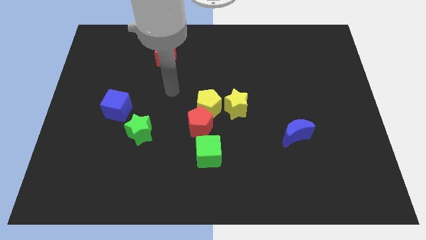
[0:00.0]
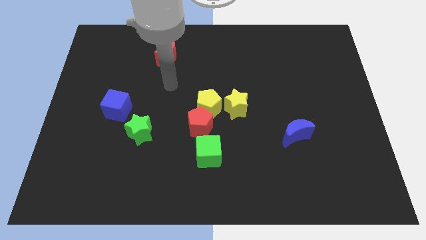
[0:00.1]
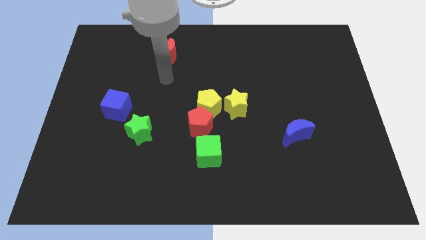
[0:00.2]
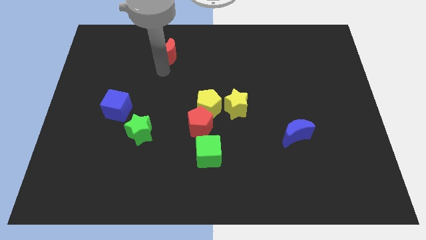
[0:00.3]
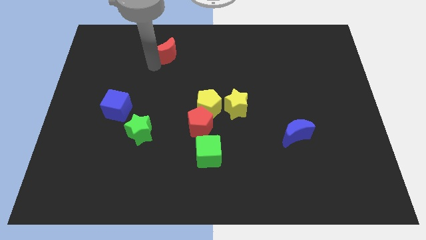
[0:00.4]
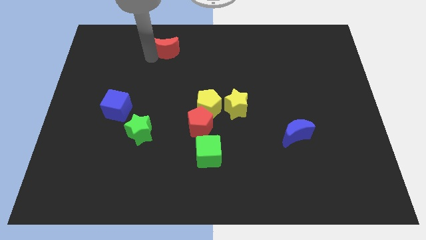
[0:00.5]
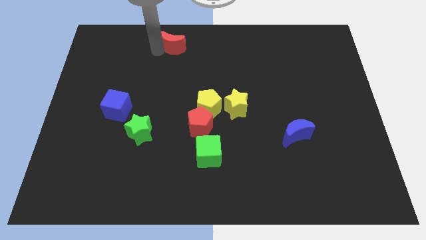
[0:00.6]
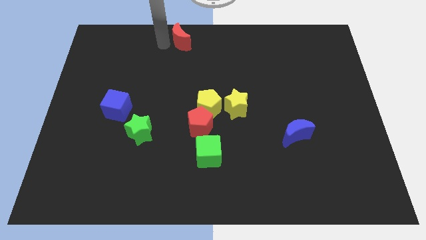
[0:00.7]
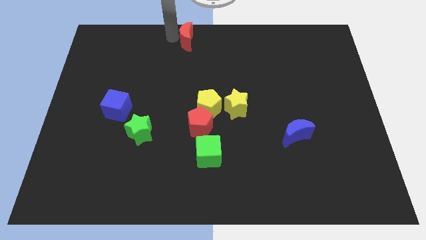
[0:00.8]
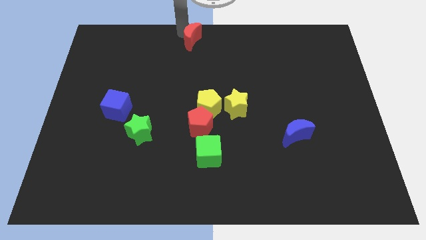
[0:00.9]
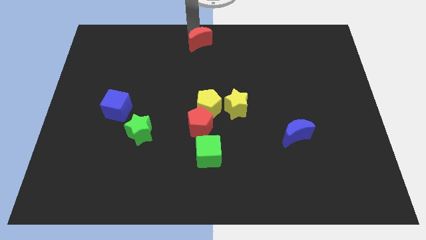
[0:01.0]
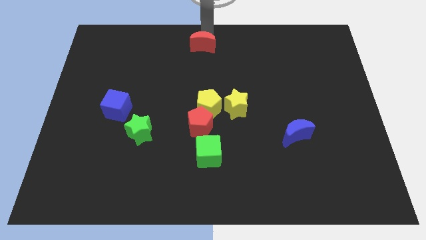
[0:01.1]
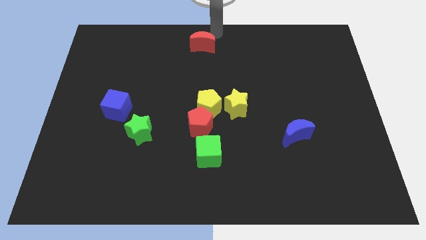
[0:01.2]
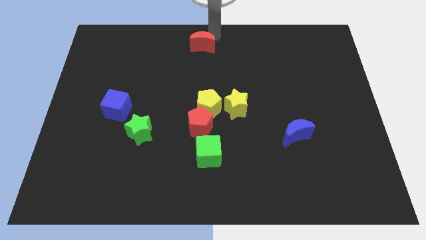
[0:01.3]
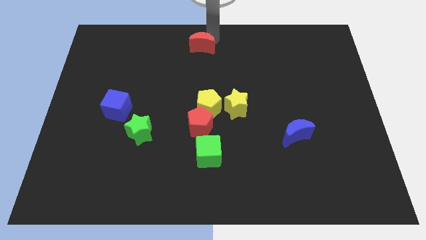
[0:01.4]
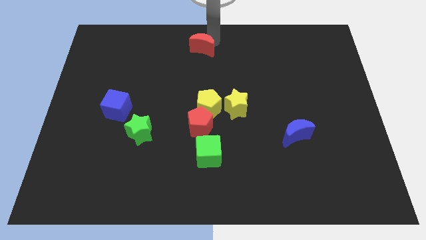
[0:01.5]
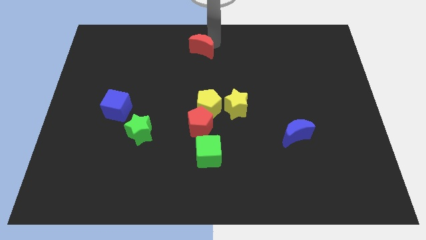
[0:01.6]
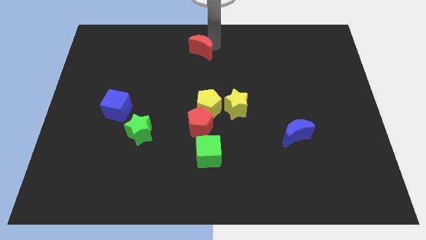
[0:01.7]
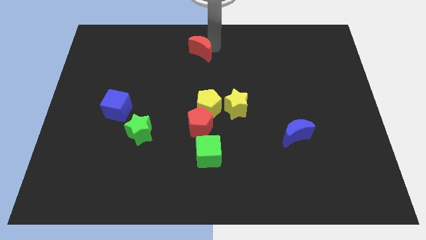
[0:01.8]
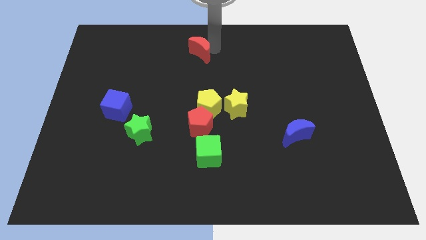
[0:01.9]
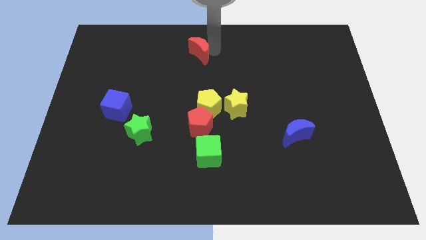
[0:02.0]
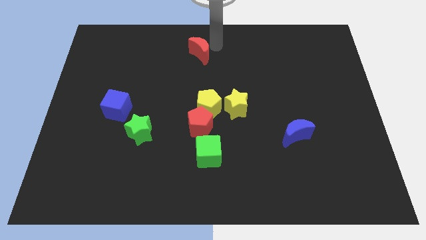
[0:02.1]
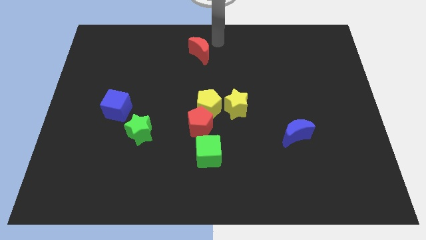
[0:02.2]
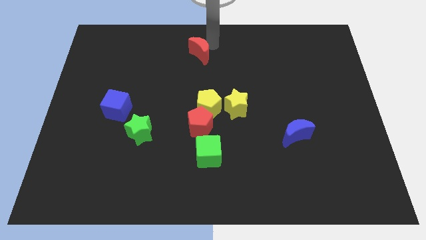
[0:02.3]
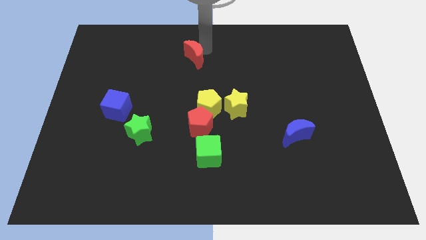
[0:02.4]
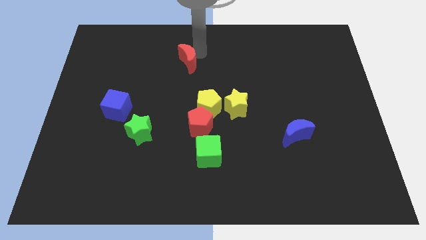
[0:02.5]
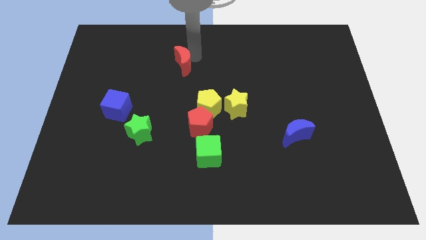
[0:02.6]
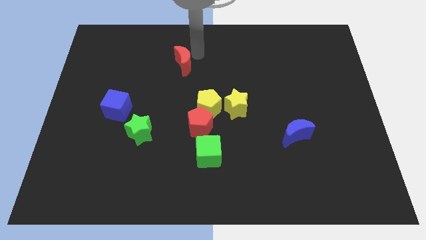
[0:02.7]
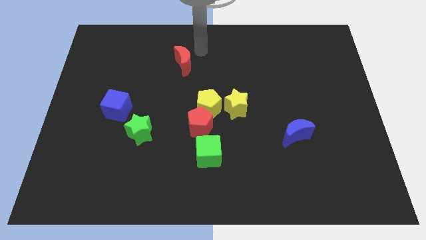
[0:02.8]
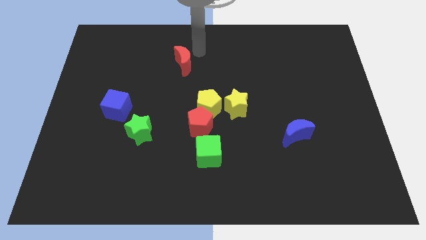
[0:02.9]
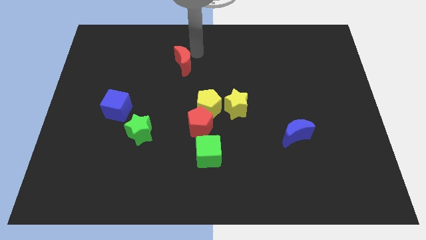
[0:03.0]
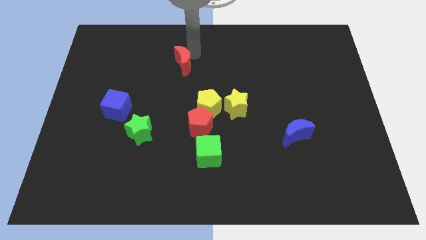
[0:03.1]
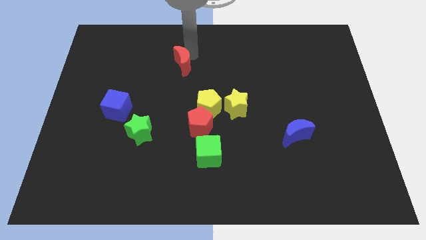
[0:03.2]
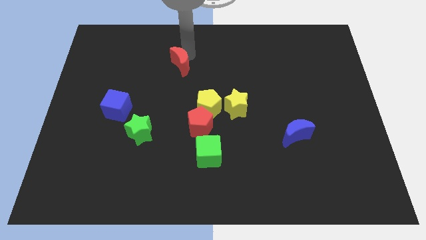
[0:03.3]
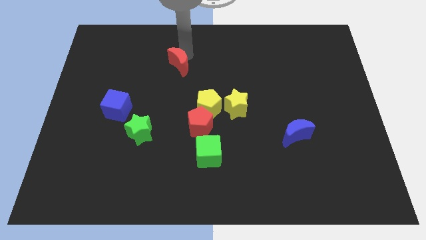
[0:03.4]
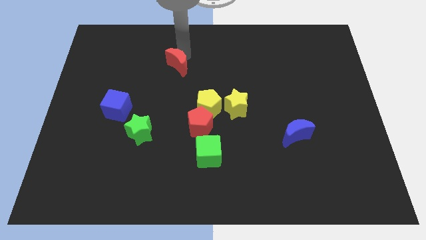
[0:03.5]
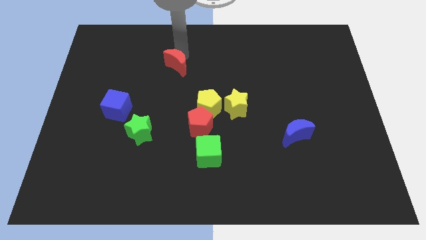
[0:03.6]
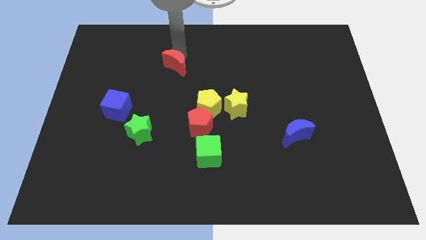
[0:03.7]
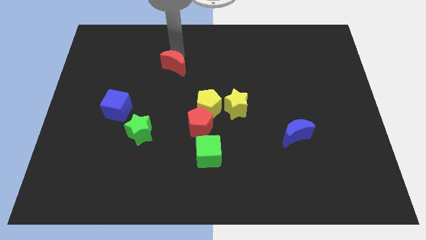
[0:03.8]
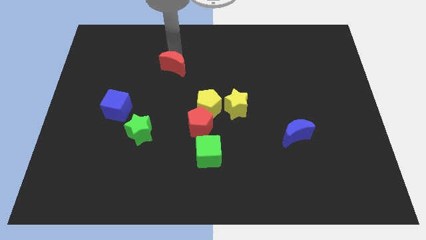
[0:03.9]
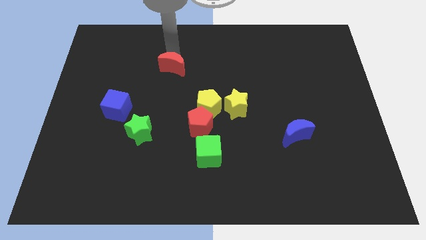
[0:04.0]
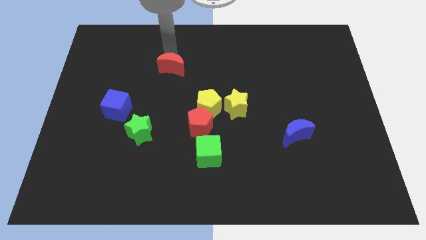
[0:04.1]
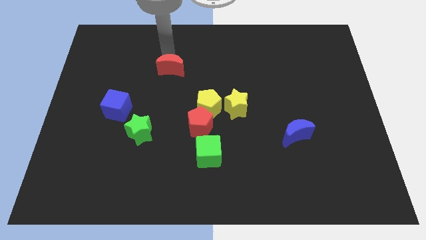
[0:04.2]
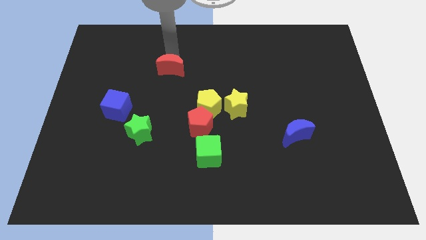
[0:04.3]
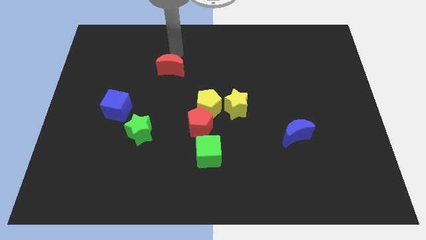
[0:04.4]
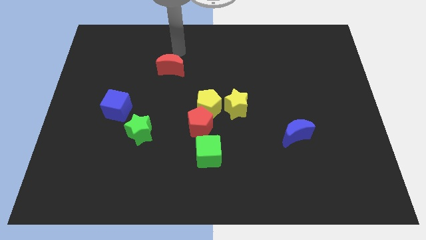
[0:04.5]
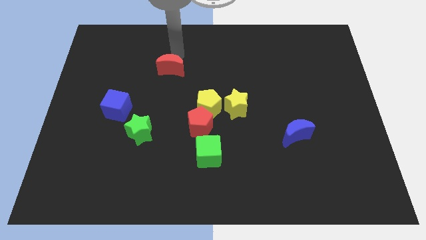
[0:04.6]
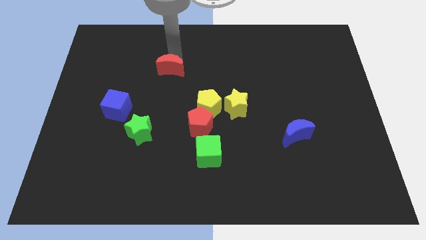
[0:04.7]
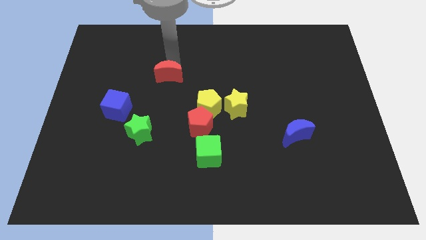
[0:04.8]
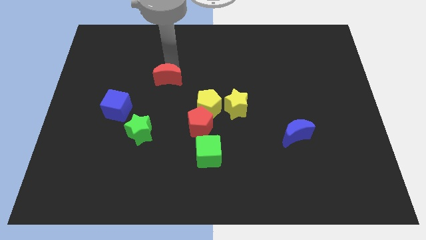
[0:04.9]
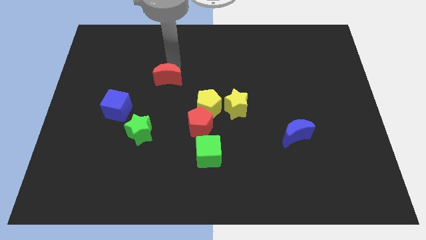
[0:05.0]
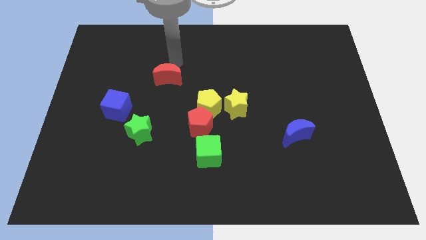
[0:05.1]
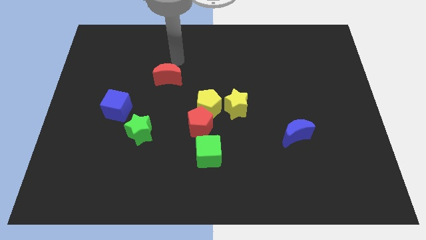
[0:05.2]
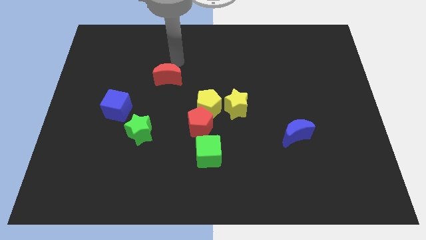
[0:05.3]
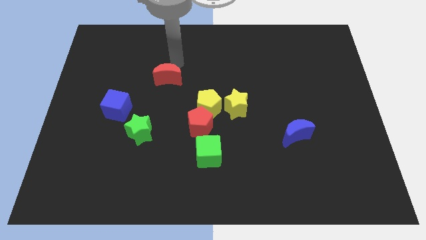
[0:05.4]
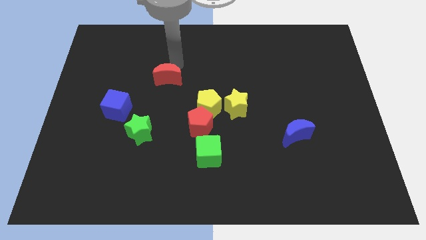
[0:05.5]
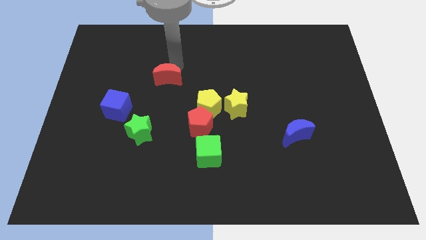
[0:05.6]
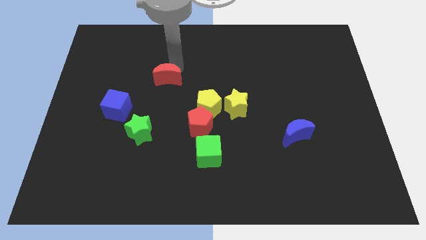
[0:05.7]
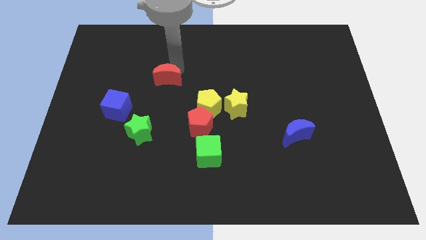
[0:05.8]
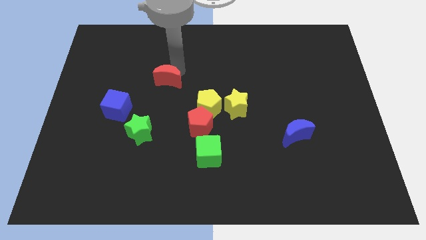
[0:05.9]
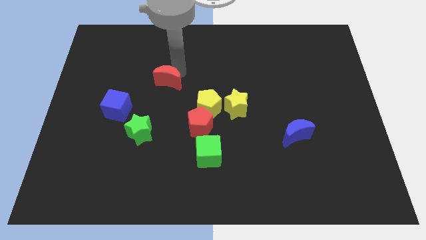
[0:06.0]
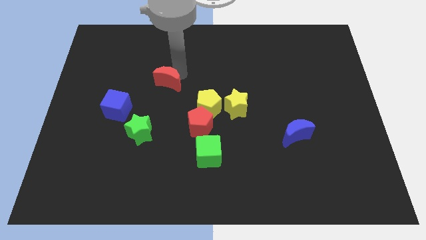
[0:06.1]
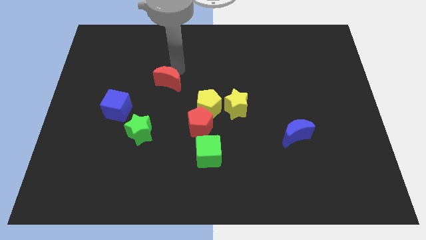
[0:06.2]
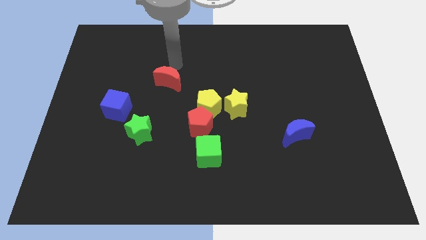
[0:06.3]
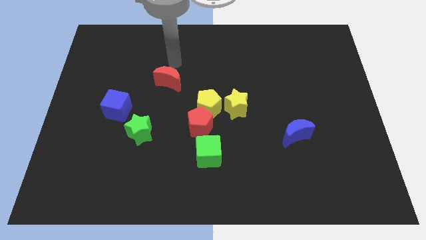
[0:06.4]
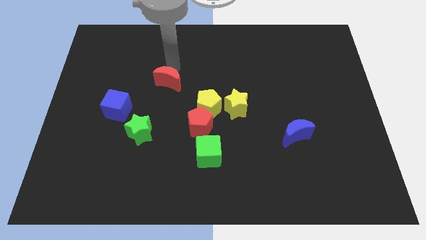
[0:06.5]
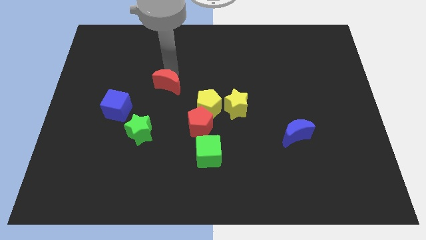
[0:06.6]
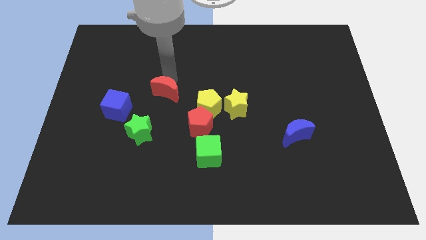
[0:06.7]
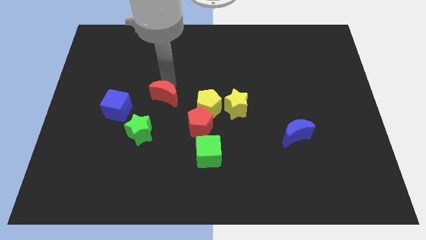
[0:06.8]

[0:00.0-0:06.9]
put the red moon to the right of the blue cube

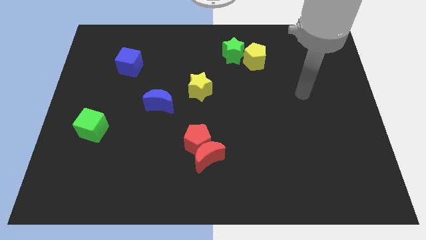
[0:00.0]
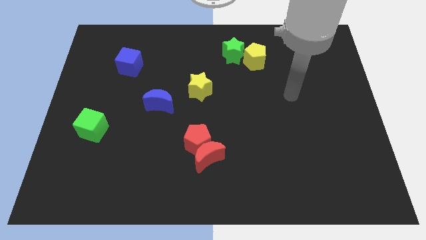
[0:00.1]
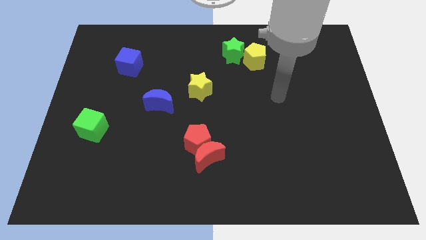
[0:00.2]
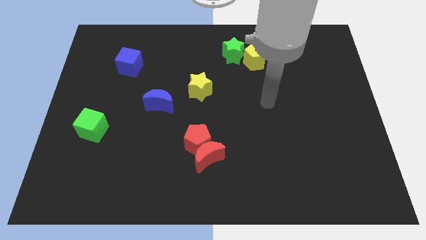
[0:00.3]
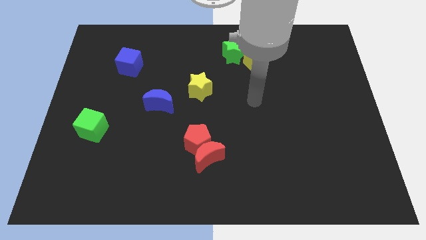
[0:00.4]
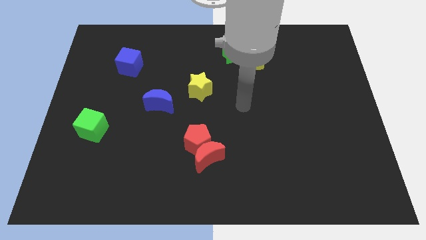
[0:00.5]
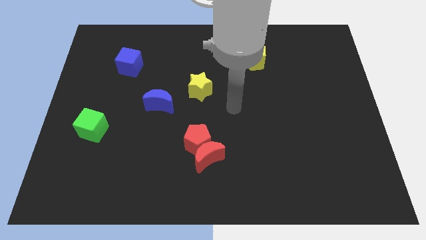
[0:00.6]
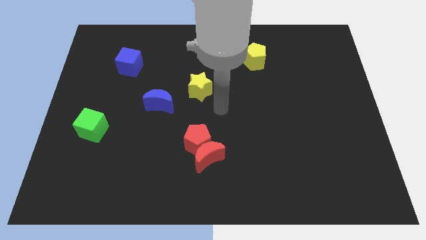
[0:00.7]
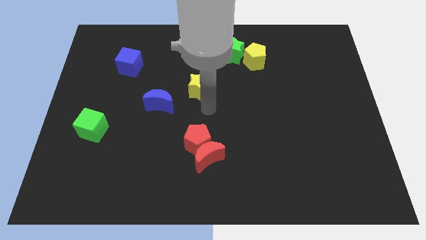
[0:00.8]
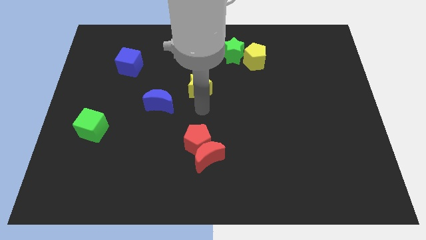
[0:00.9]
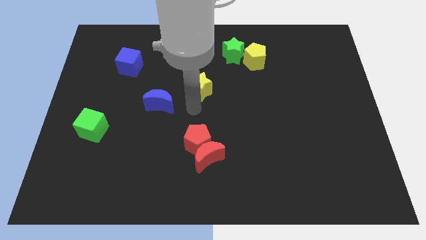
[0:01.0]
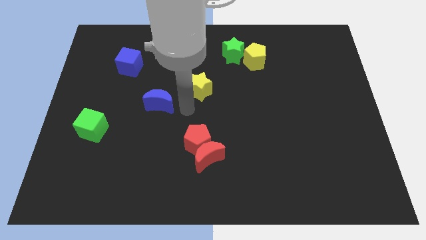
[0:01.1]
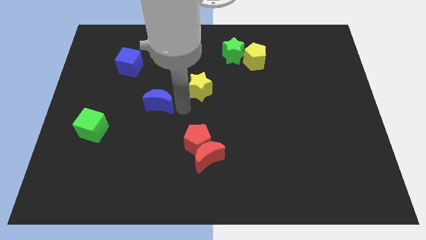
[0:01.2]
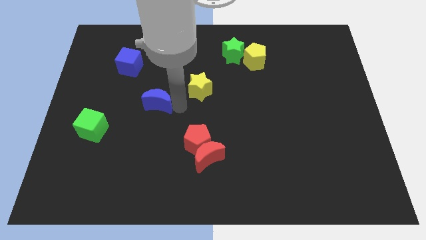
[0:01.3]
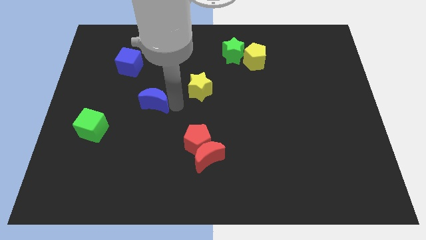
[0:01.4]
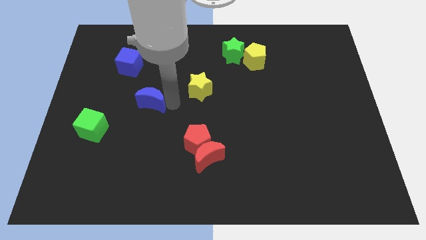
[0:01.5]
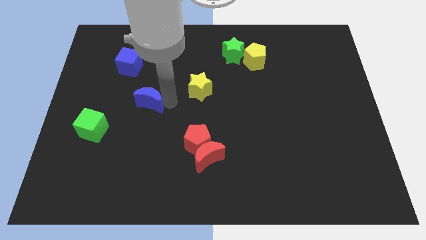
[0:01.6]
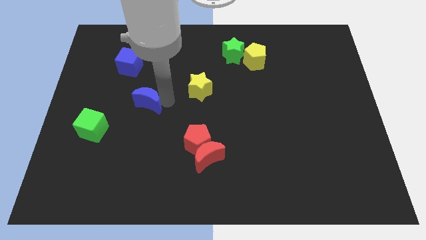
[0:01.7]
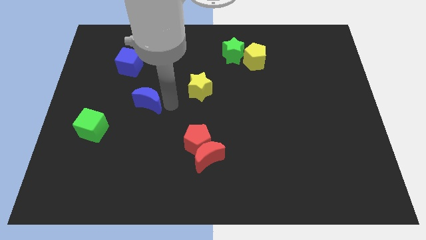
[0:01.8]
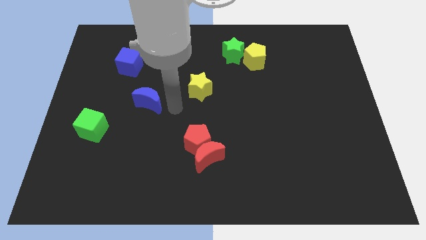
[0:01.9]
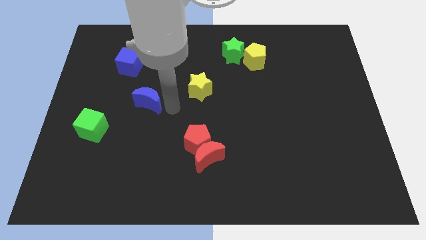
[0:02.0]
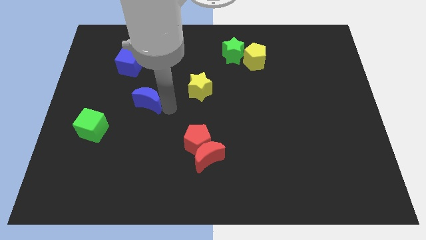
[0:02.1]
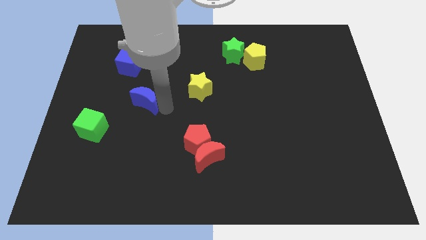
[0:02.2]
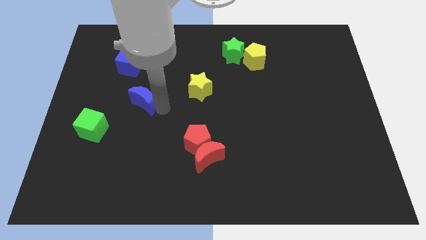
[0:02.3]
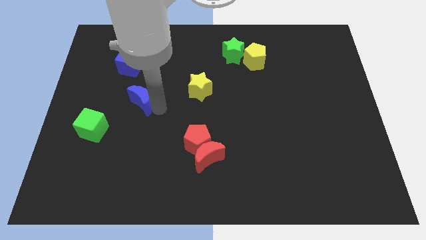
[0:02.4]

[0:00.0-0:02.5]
put the blue moon to the bottom of the blue cube
